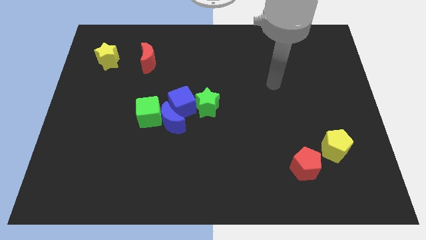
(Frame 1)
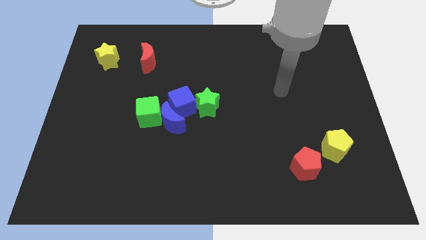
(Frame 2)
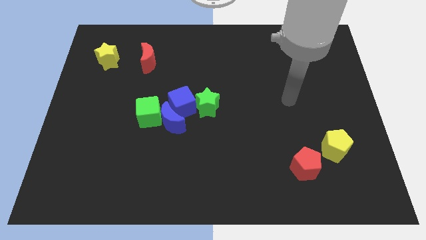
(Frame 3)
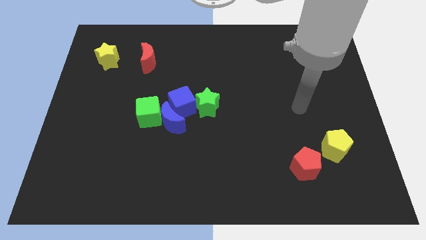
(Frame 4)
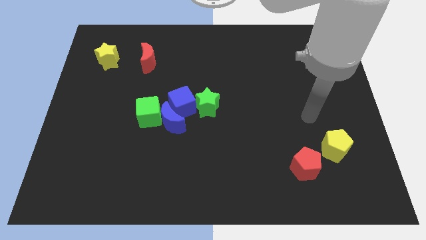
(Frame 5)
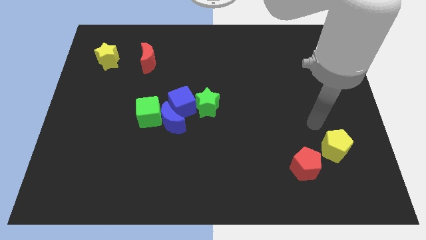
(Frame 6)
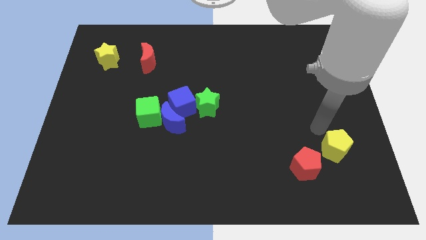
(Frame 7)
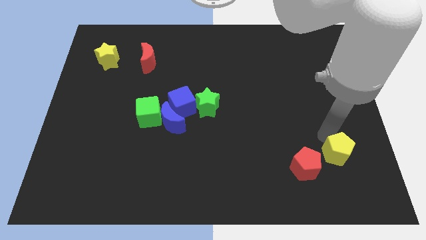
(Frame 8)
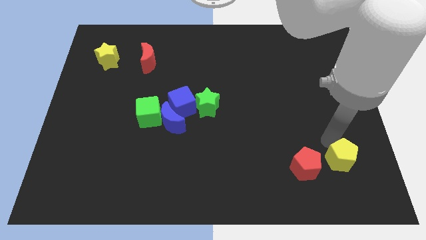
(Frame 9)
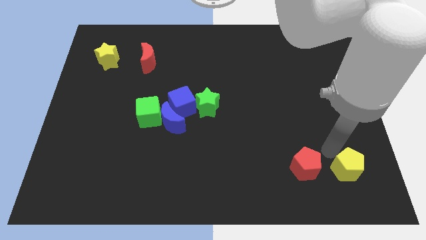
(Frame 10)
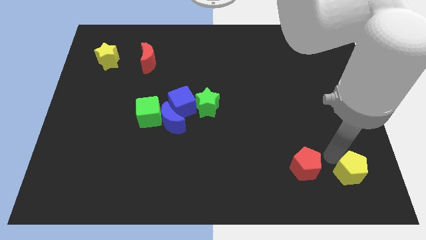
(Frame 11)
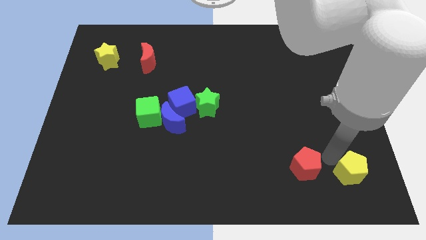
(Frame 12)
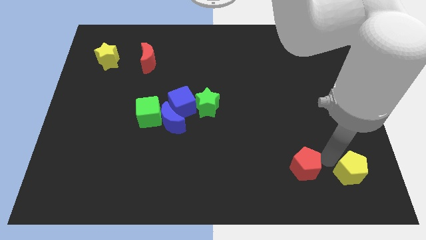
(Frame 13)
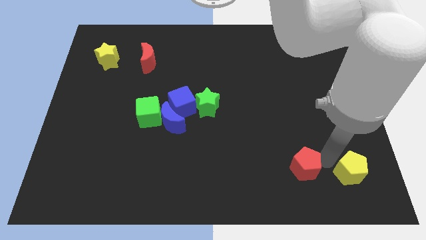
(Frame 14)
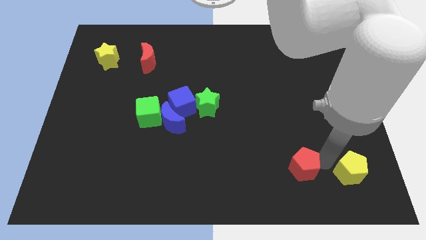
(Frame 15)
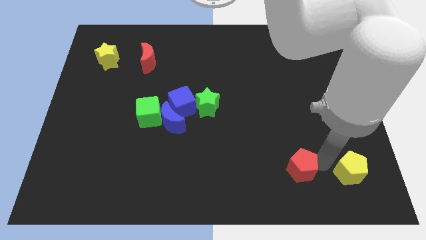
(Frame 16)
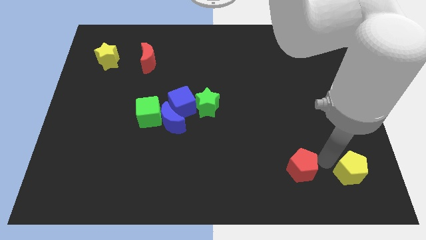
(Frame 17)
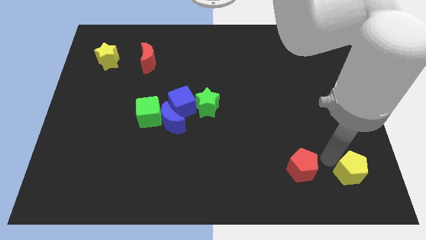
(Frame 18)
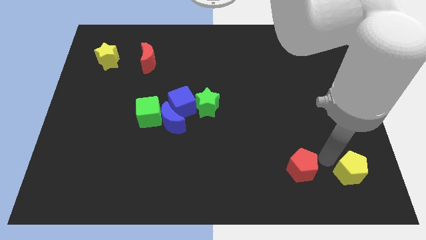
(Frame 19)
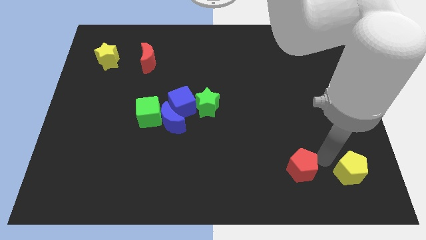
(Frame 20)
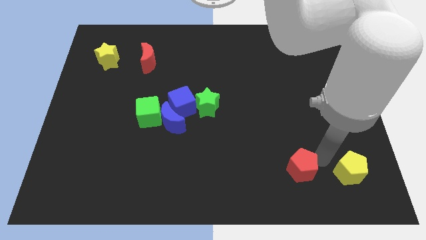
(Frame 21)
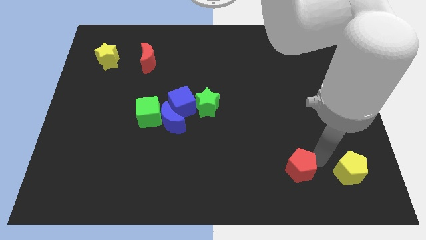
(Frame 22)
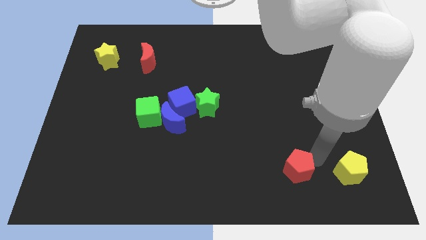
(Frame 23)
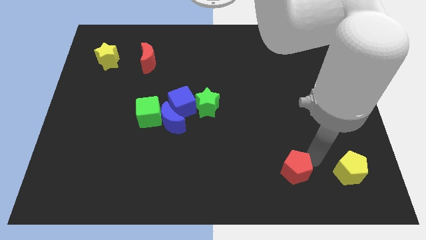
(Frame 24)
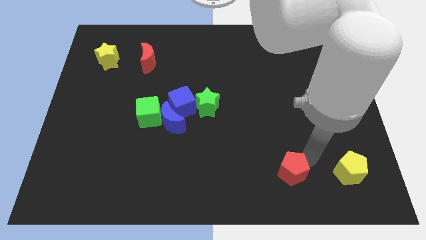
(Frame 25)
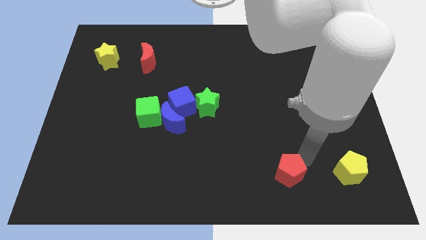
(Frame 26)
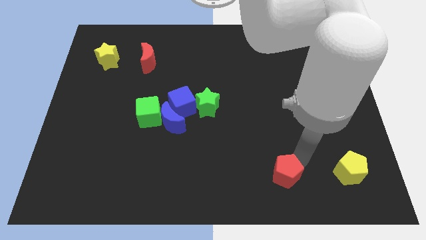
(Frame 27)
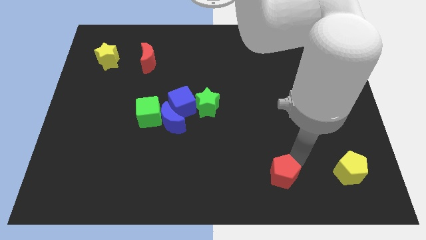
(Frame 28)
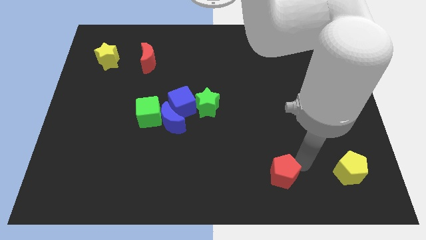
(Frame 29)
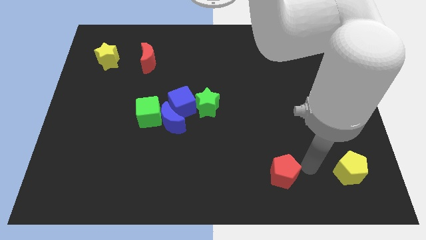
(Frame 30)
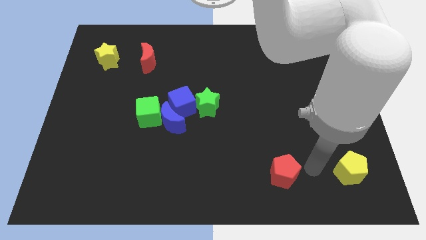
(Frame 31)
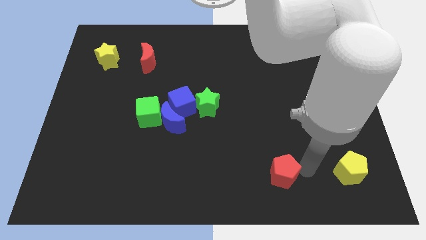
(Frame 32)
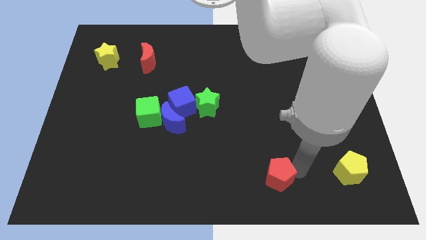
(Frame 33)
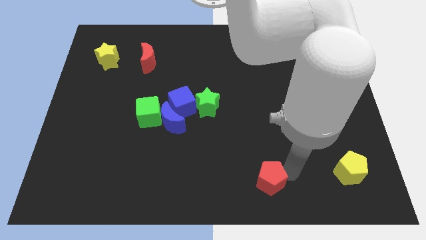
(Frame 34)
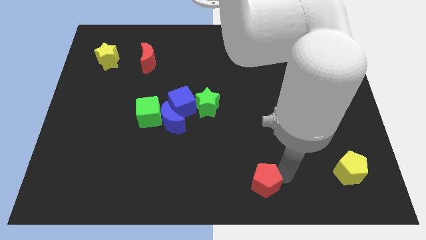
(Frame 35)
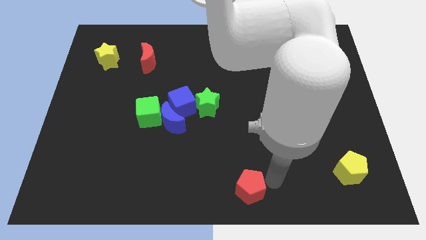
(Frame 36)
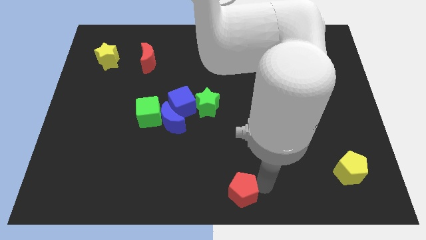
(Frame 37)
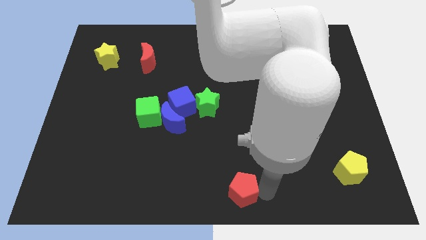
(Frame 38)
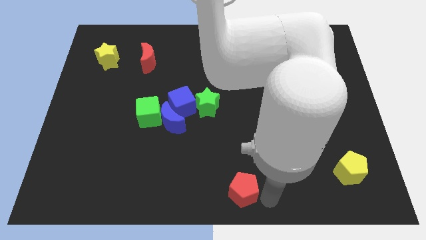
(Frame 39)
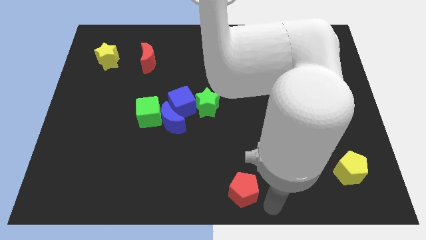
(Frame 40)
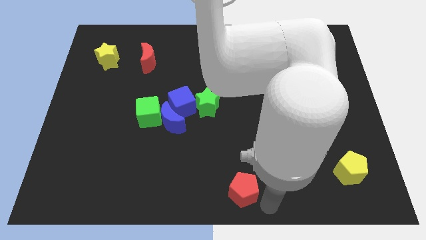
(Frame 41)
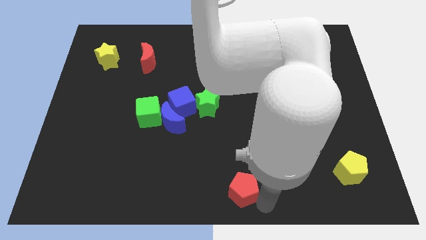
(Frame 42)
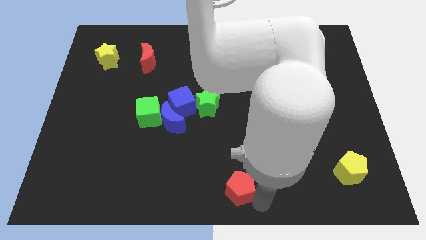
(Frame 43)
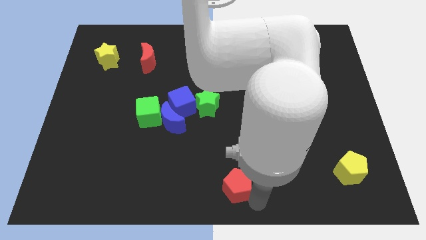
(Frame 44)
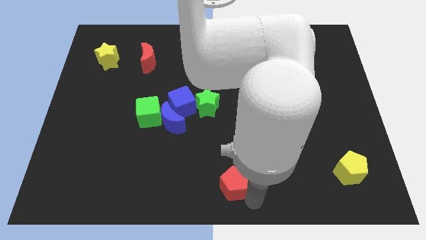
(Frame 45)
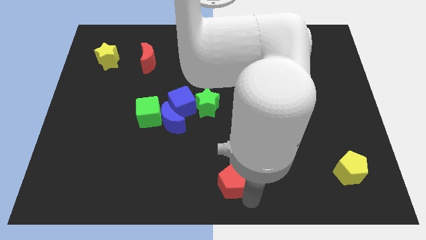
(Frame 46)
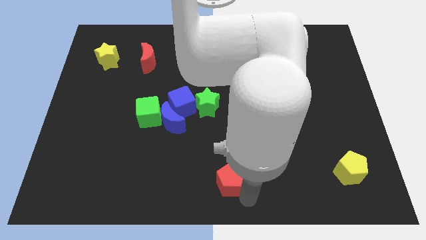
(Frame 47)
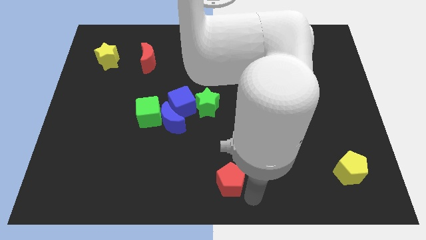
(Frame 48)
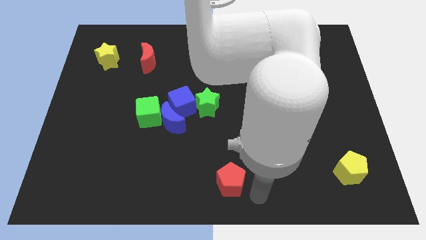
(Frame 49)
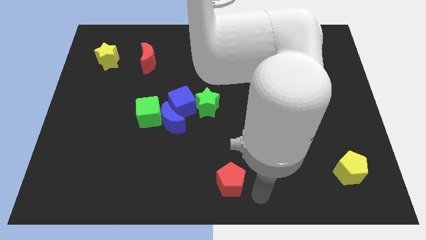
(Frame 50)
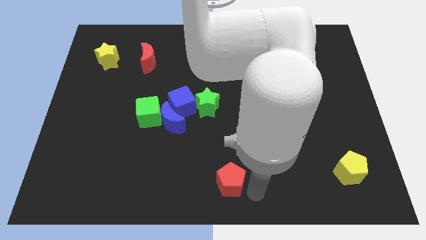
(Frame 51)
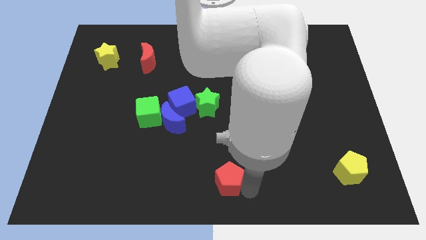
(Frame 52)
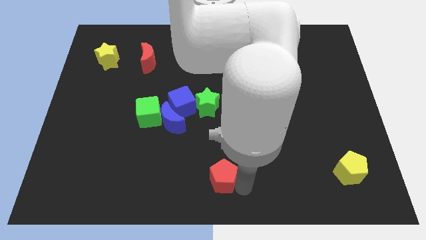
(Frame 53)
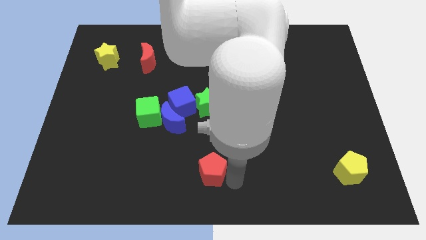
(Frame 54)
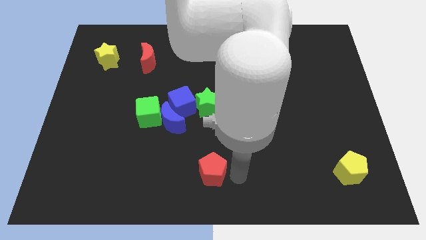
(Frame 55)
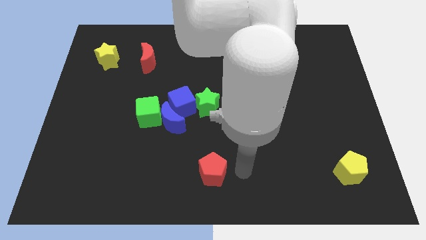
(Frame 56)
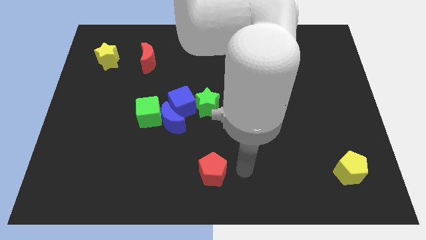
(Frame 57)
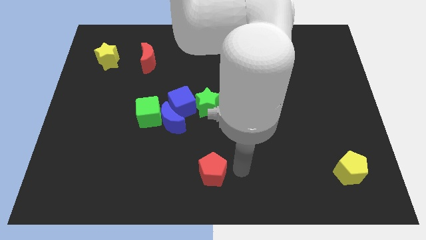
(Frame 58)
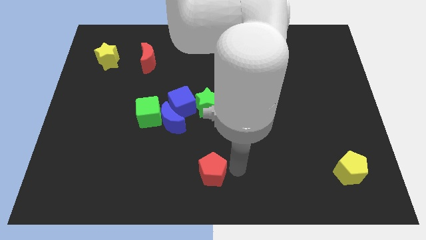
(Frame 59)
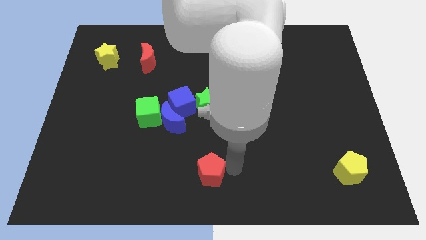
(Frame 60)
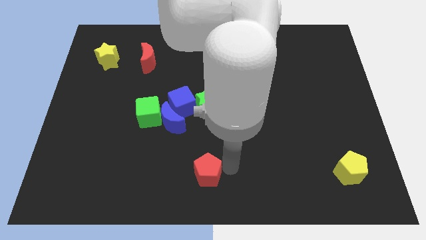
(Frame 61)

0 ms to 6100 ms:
move the red pentagon to the left

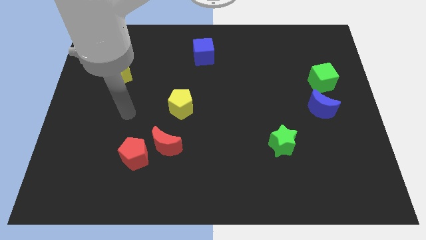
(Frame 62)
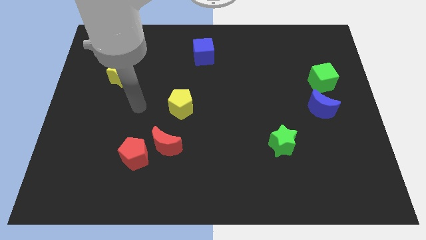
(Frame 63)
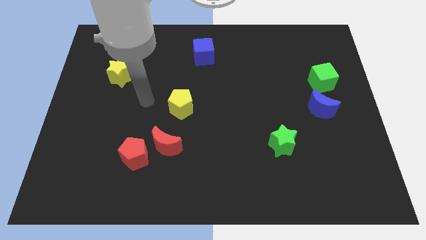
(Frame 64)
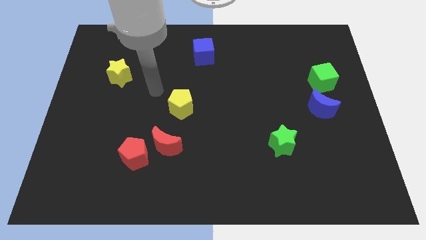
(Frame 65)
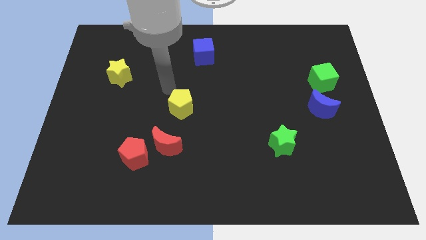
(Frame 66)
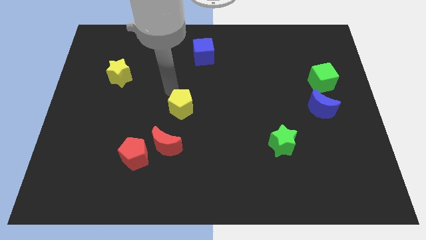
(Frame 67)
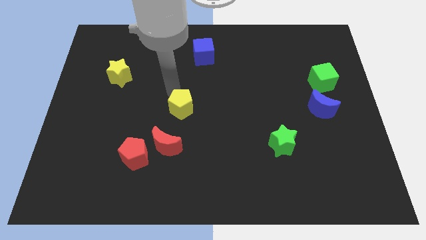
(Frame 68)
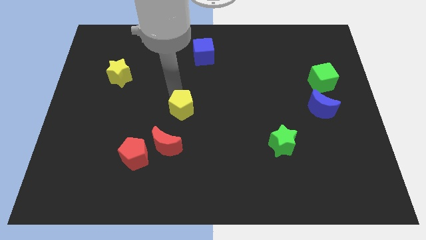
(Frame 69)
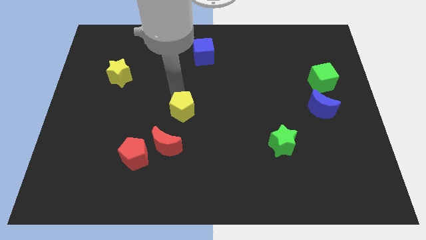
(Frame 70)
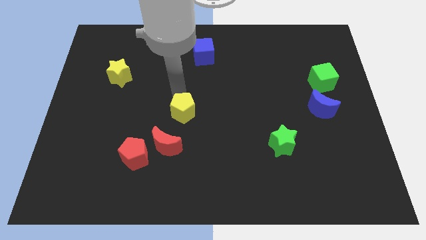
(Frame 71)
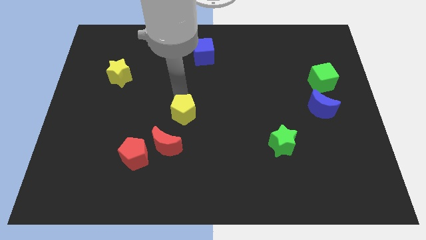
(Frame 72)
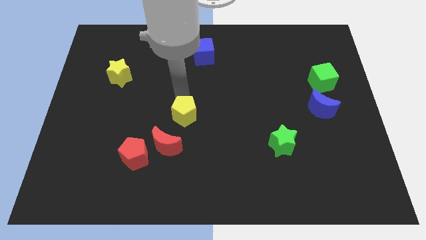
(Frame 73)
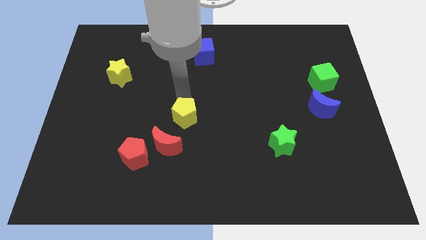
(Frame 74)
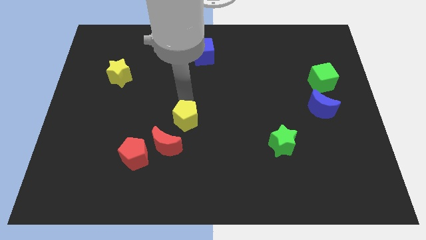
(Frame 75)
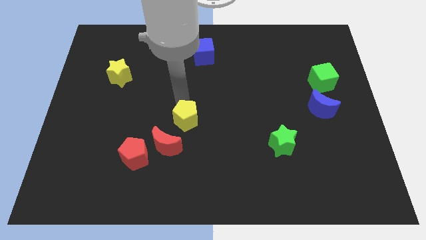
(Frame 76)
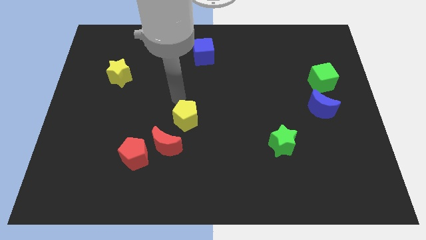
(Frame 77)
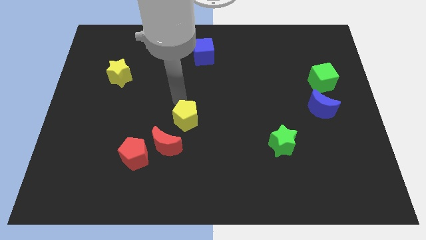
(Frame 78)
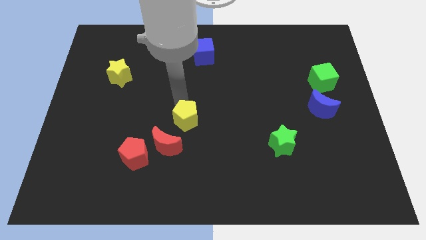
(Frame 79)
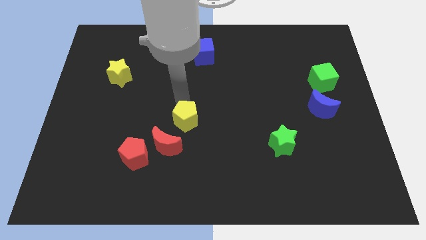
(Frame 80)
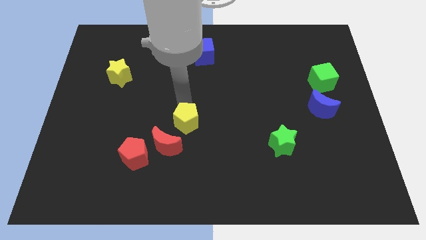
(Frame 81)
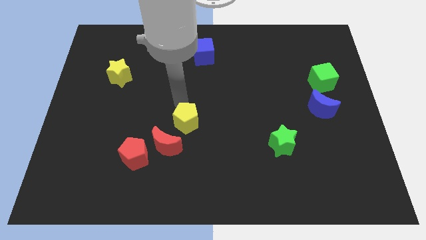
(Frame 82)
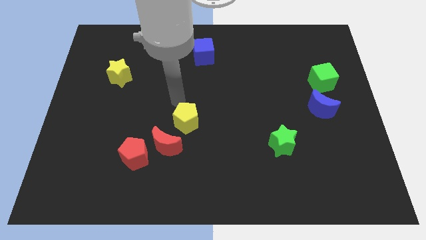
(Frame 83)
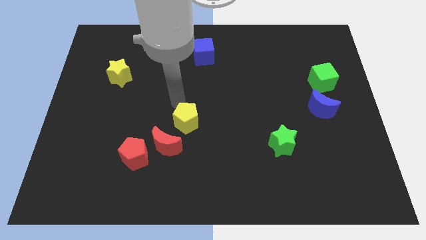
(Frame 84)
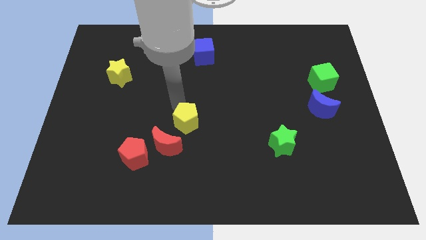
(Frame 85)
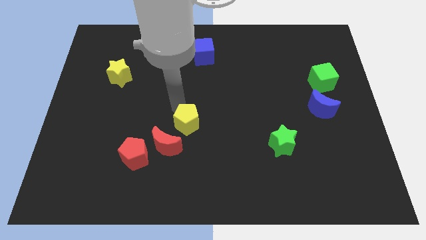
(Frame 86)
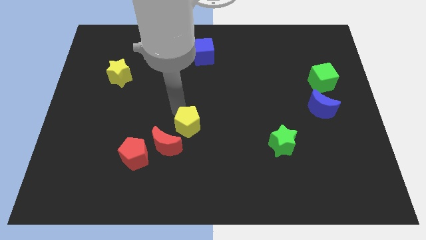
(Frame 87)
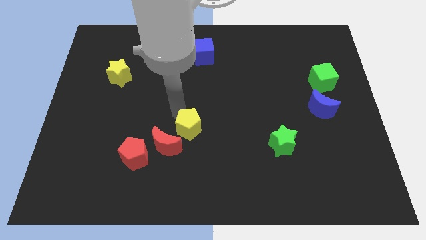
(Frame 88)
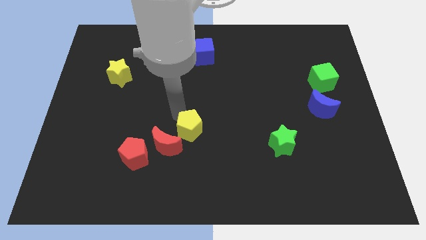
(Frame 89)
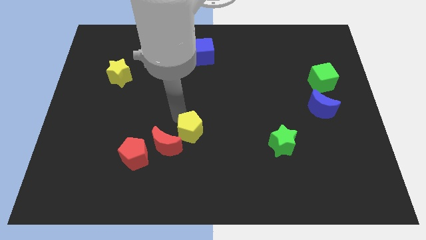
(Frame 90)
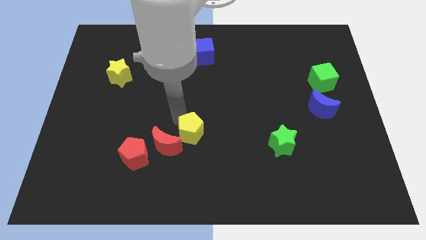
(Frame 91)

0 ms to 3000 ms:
push the yellow pentagon a little down
